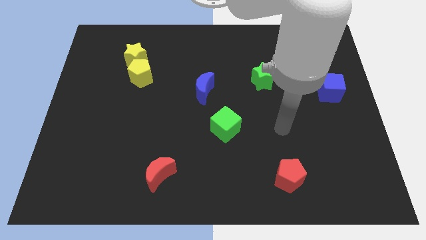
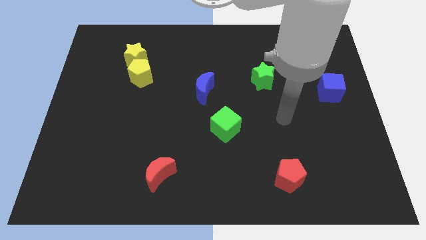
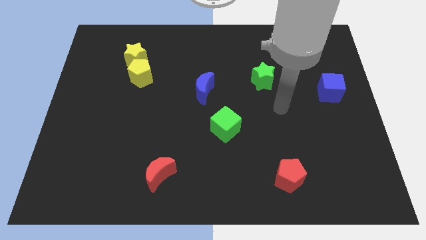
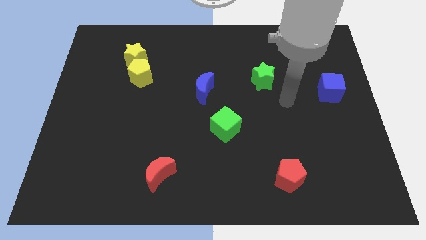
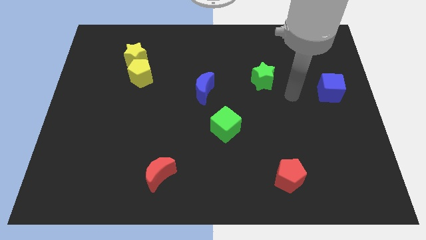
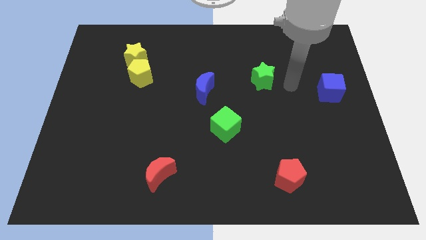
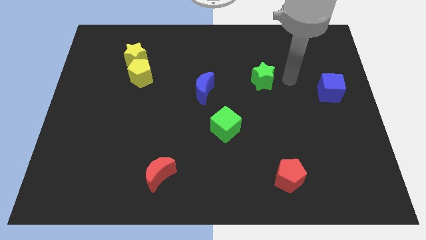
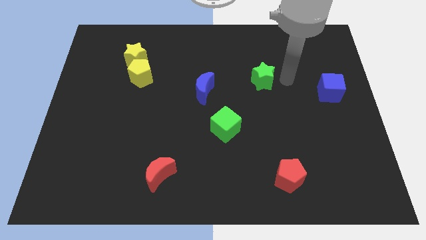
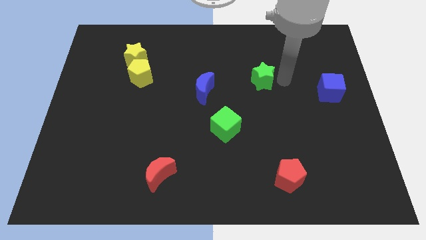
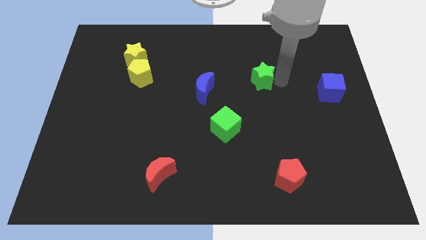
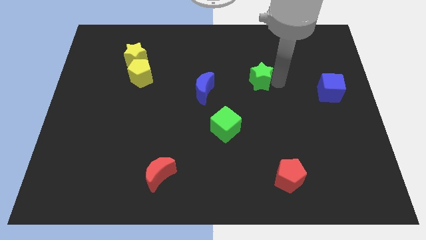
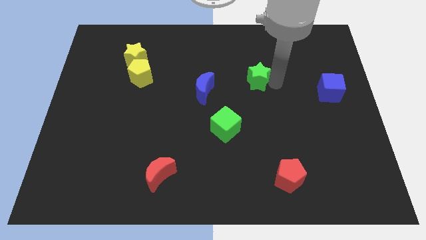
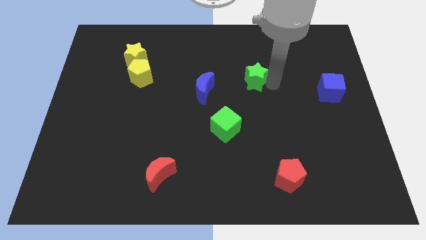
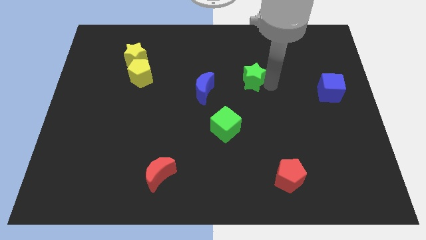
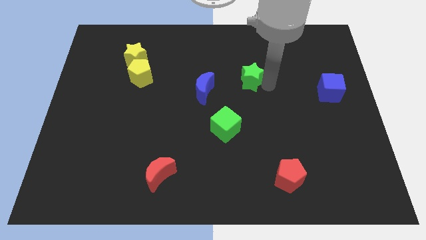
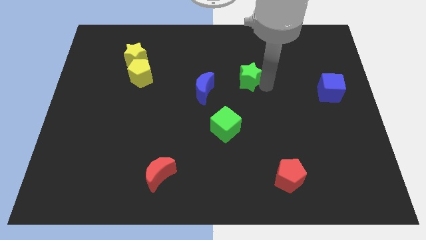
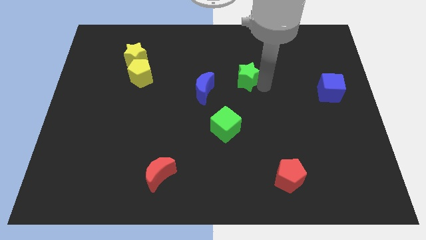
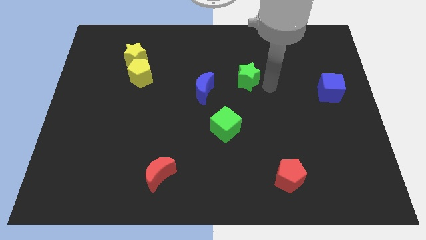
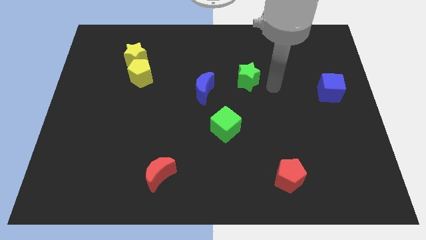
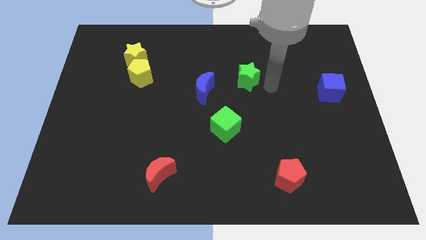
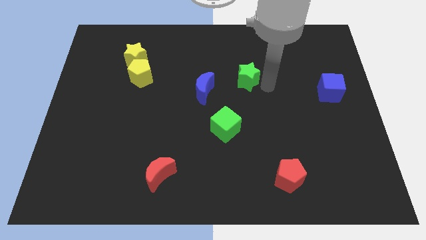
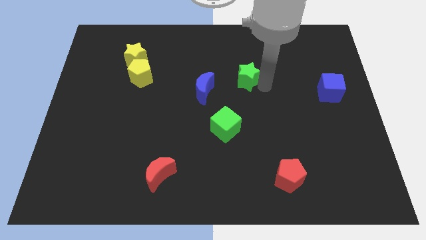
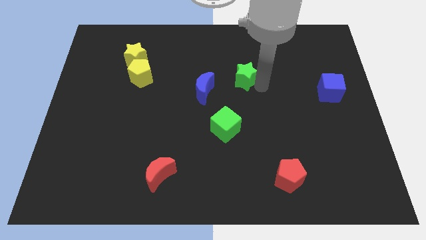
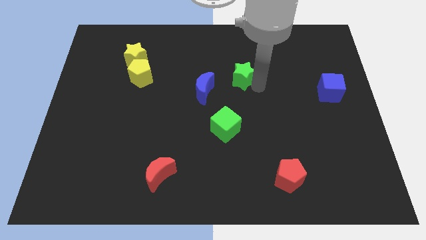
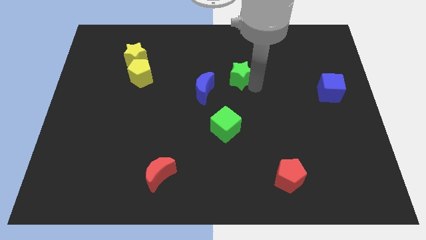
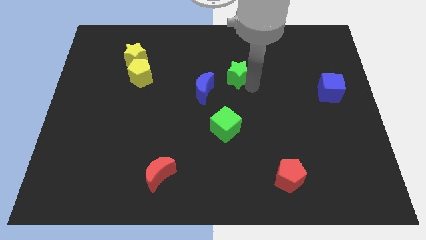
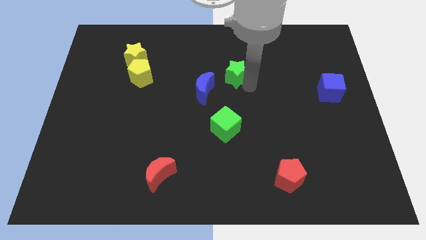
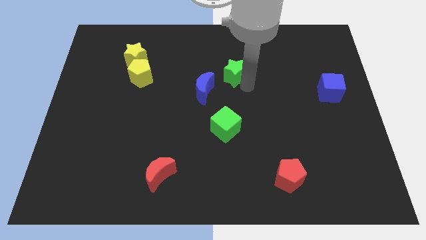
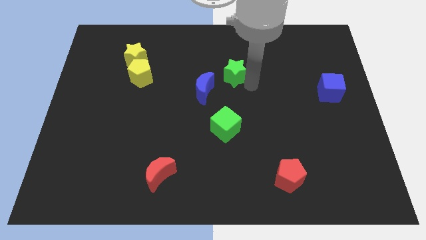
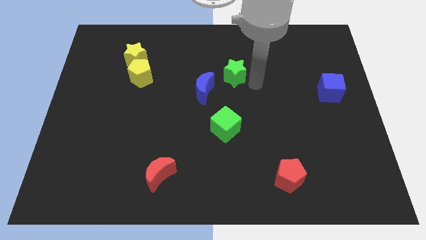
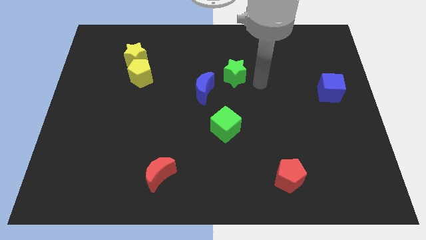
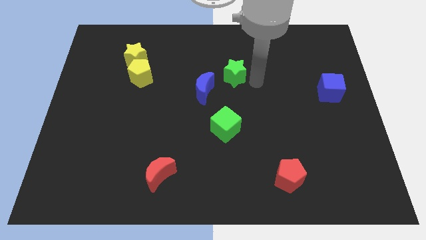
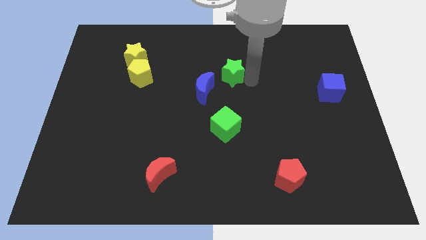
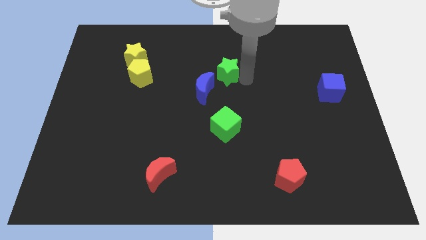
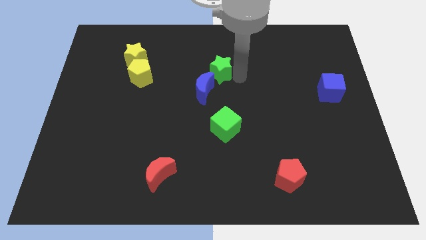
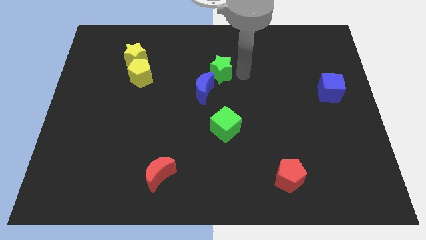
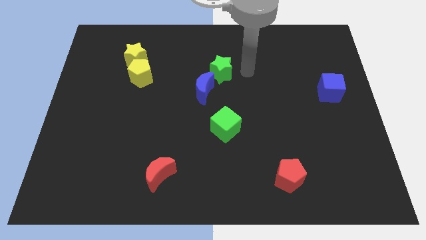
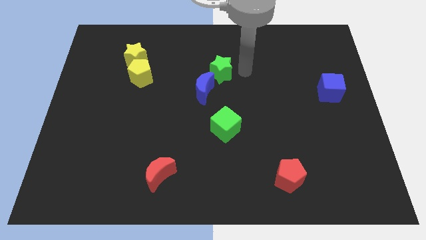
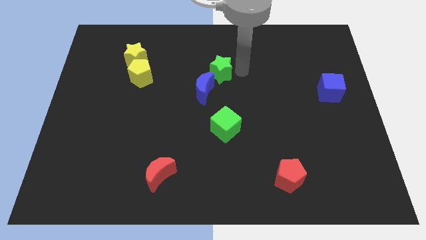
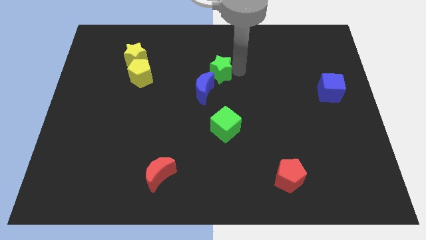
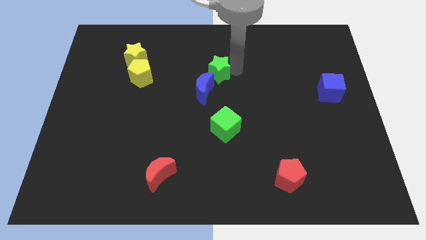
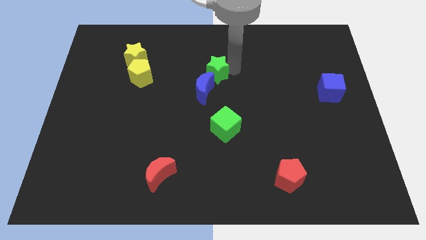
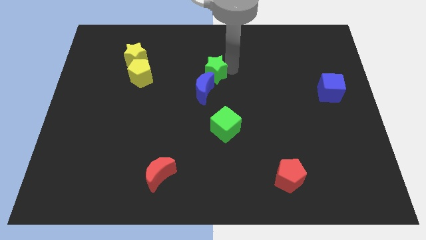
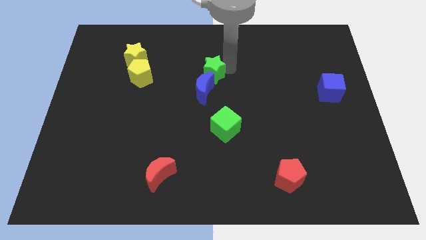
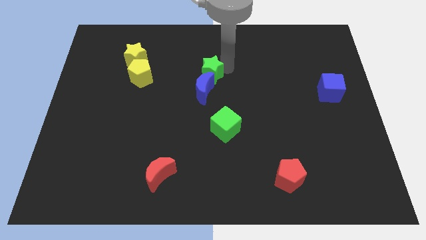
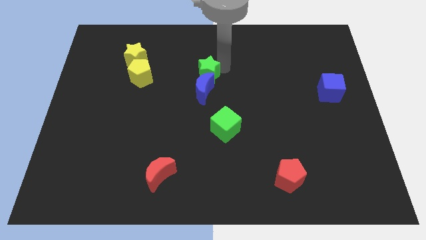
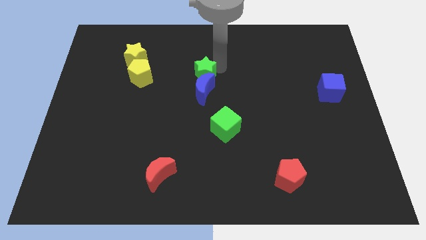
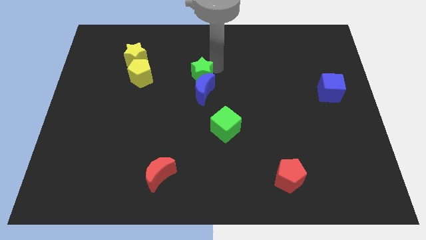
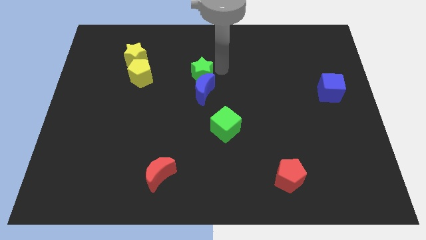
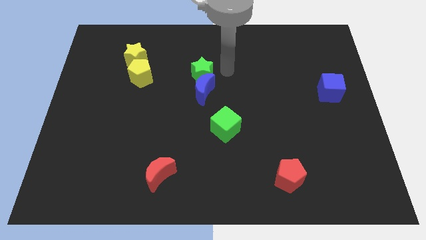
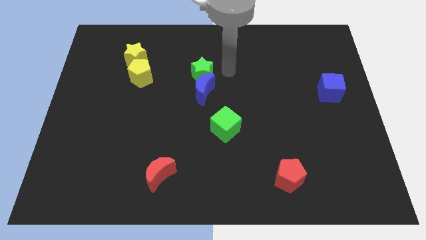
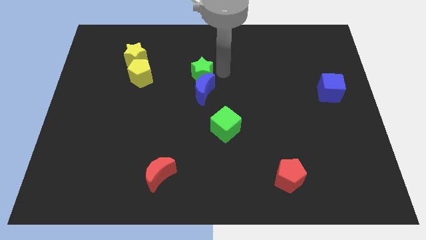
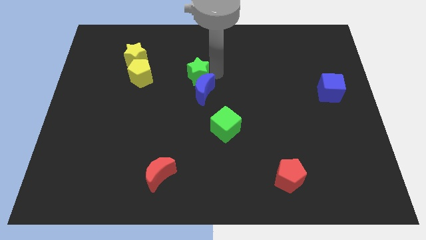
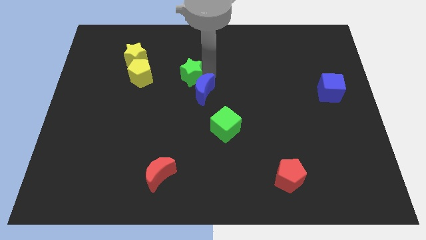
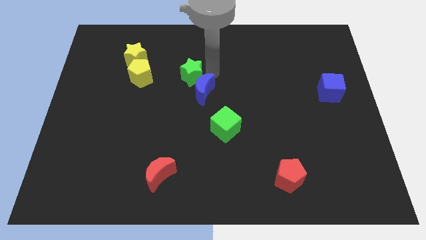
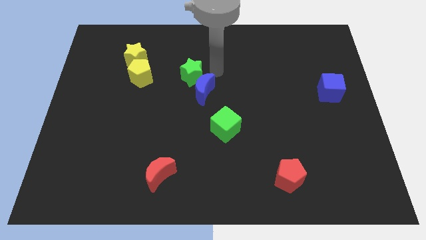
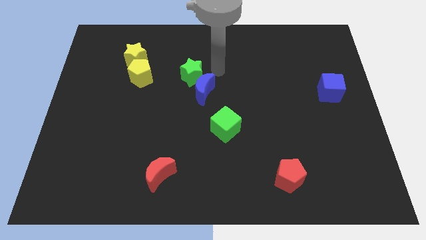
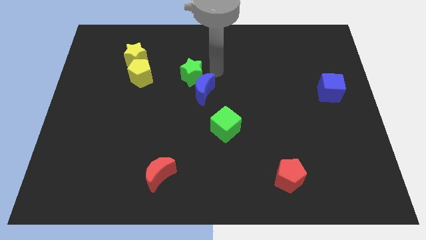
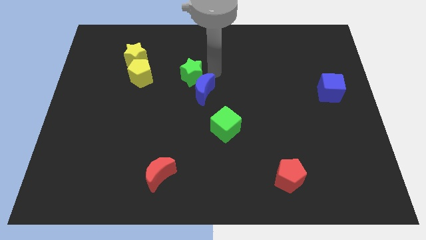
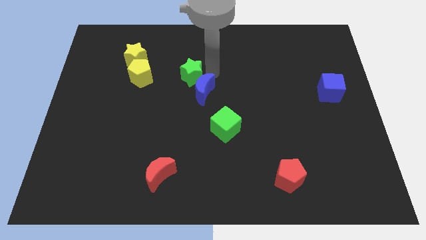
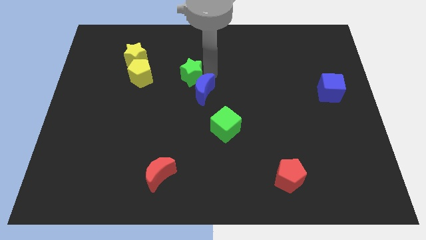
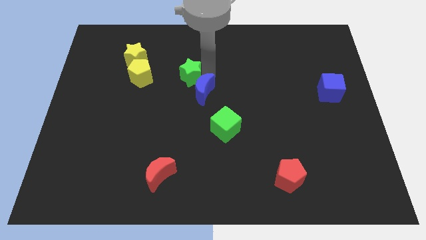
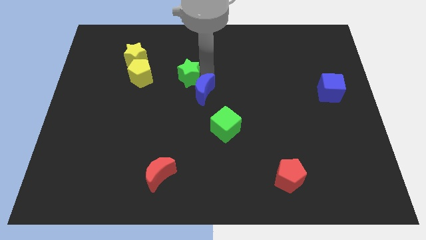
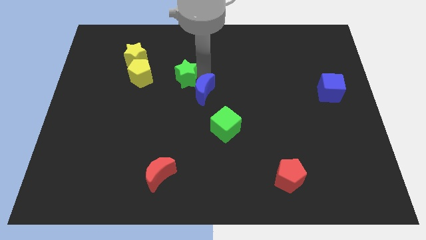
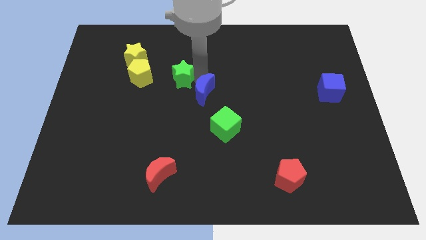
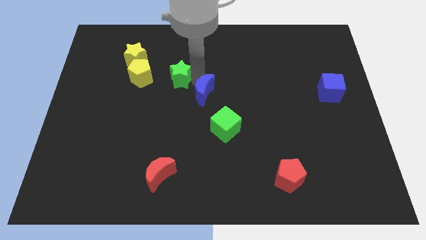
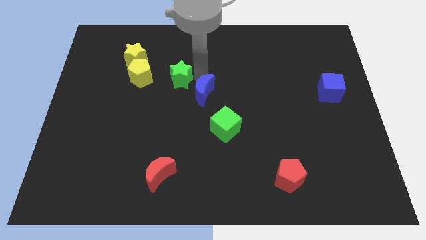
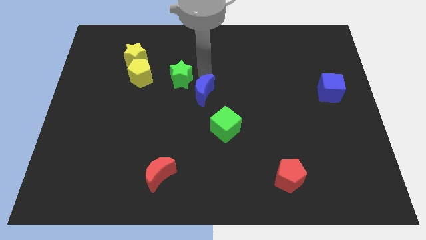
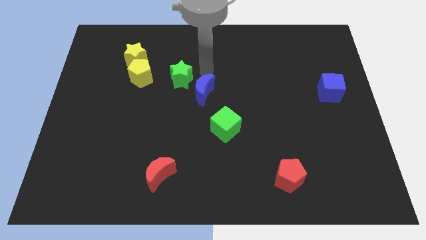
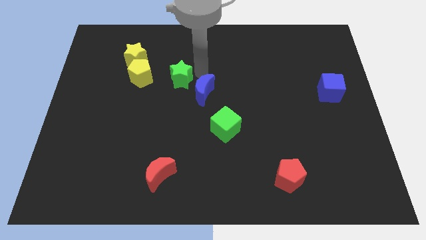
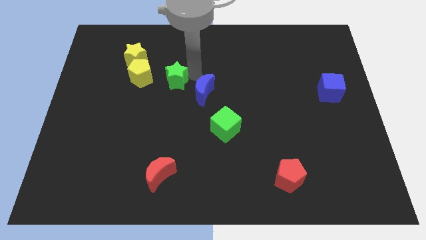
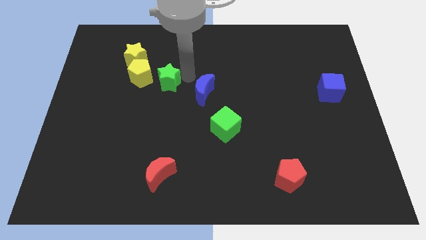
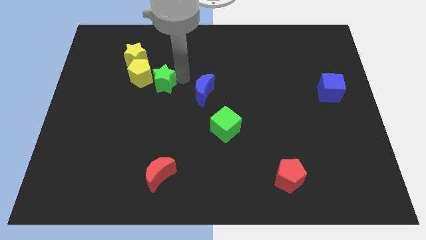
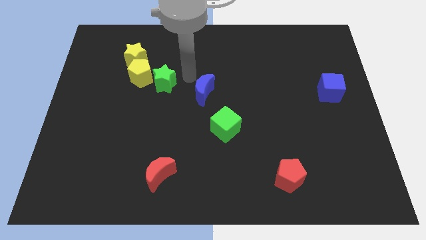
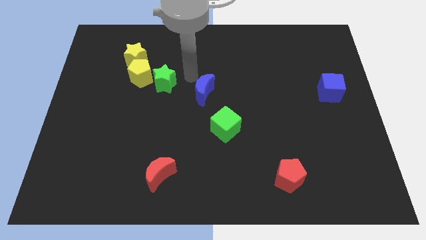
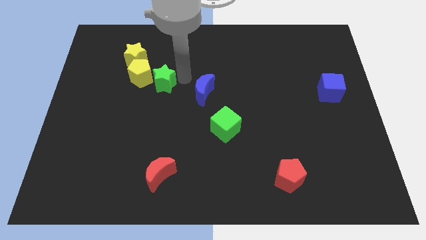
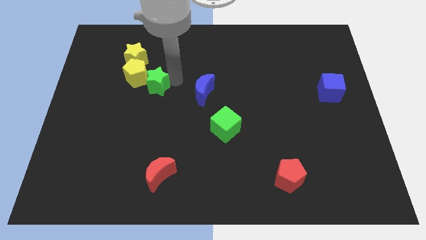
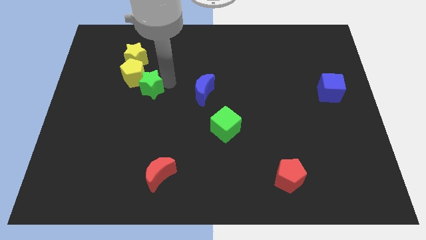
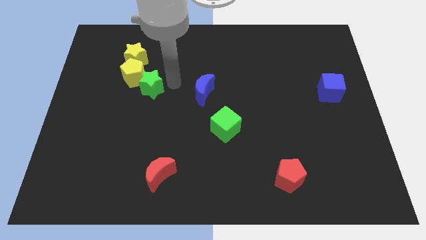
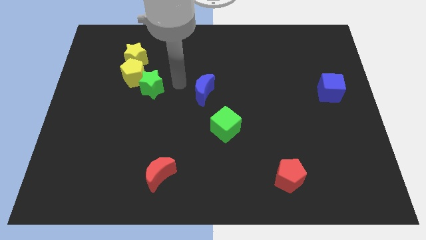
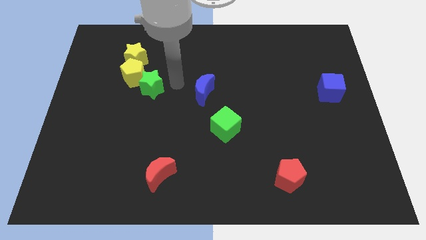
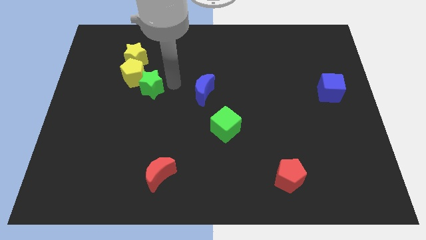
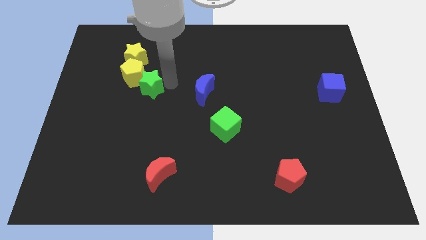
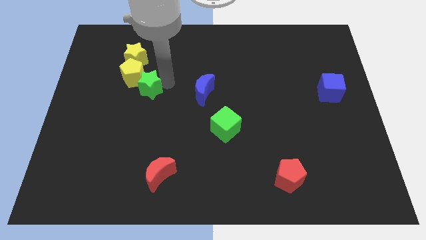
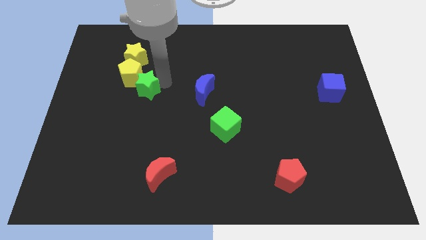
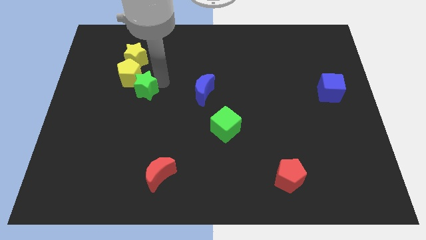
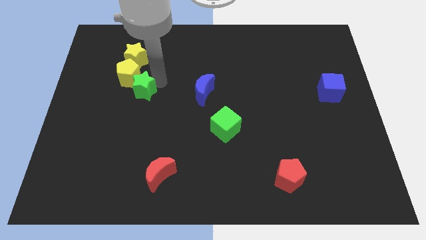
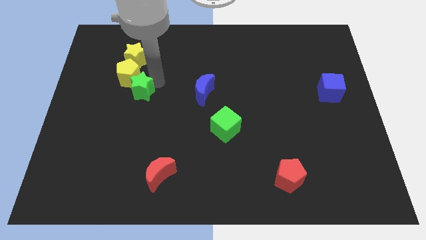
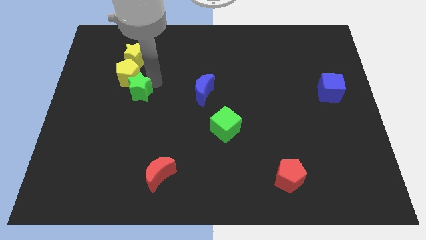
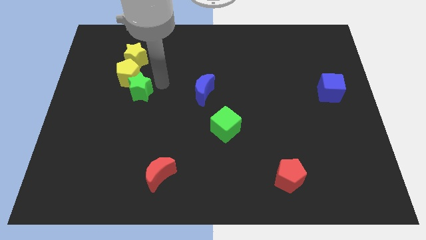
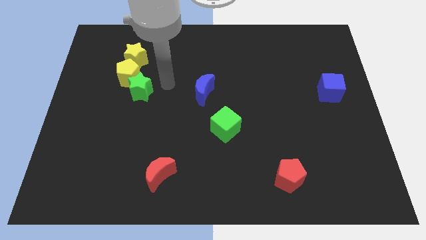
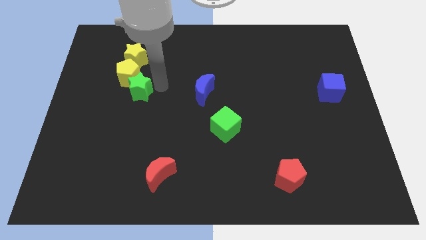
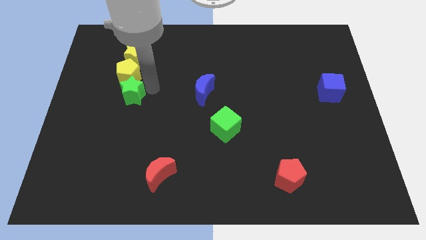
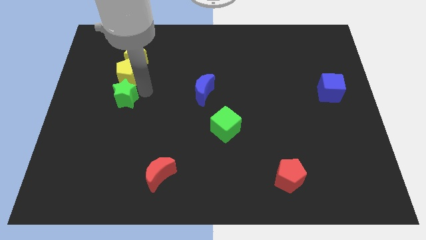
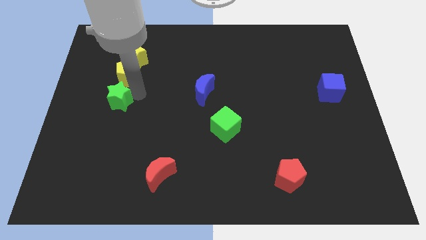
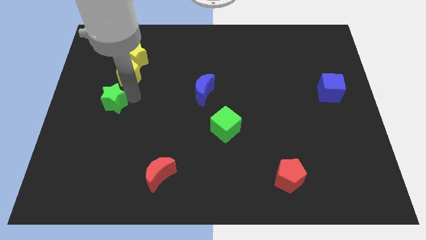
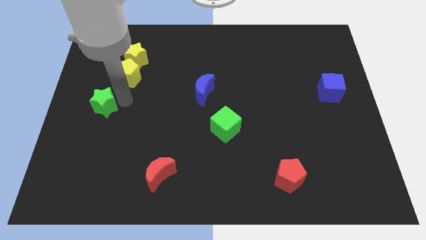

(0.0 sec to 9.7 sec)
push the green star to the left side of the board
